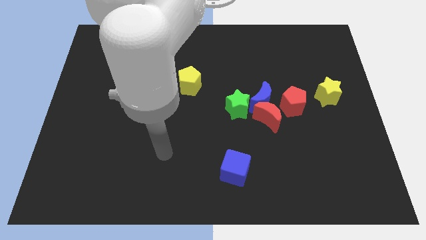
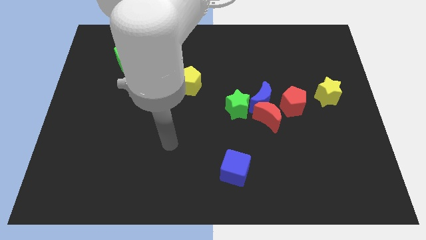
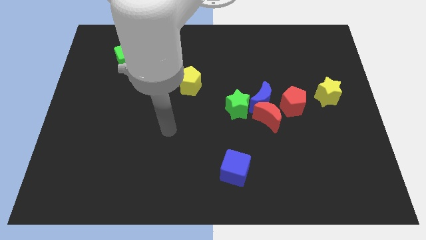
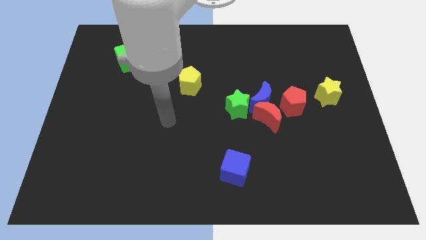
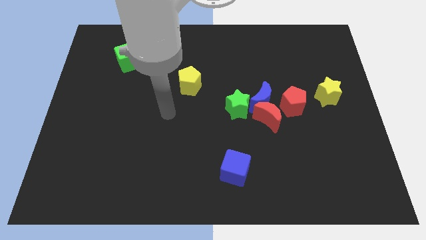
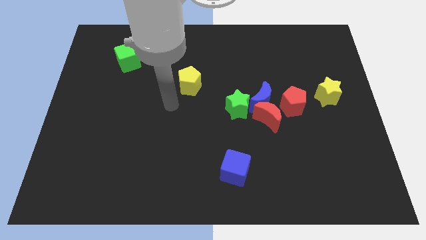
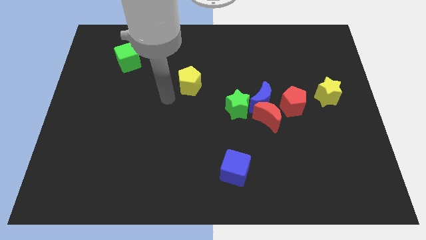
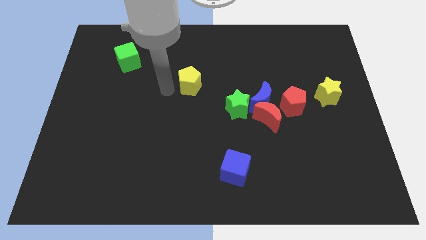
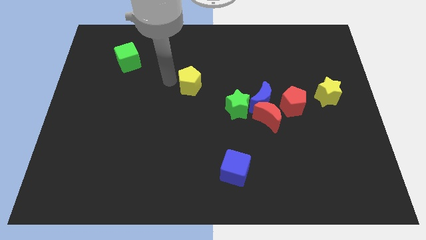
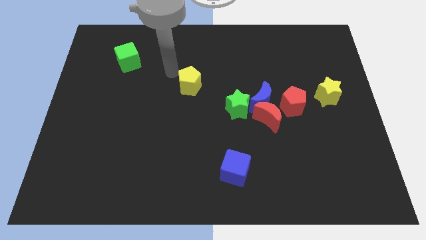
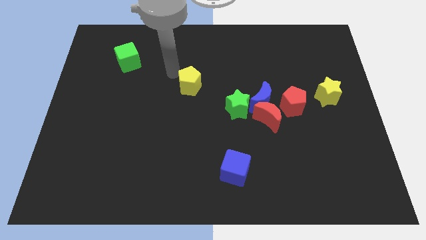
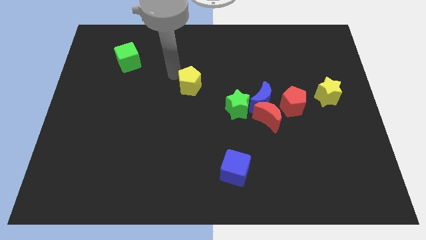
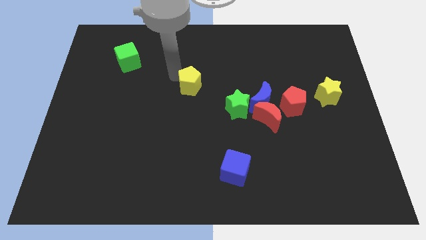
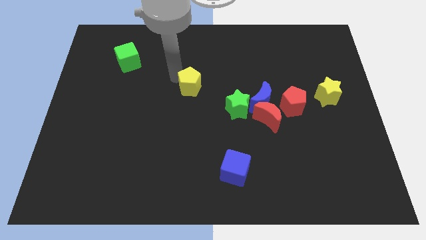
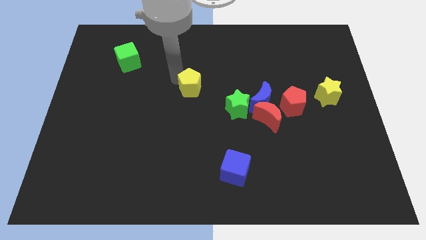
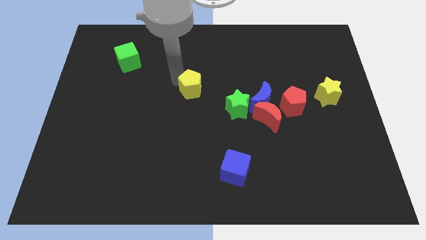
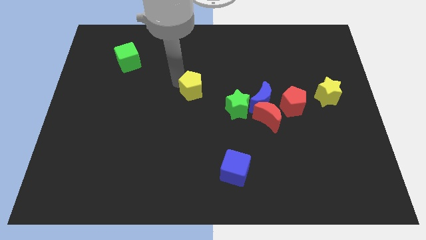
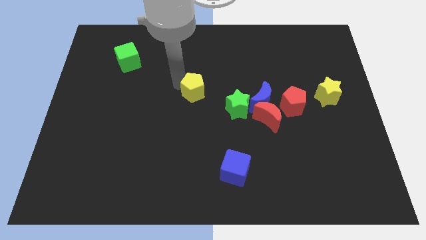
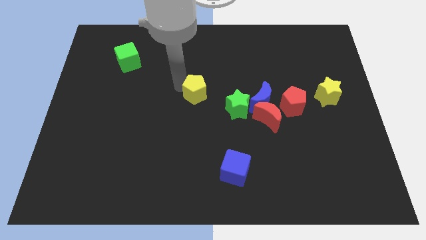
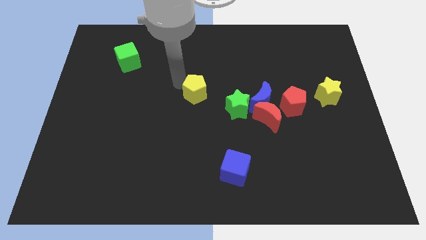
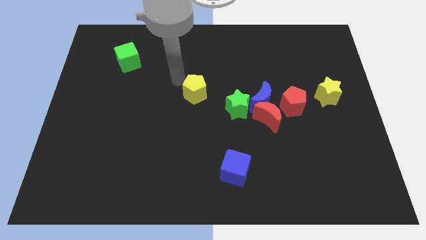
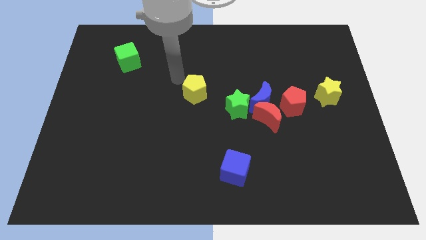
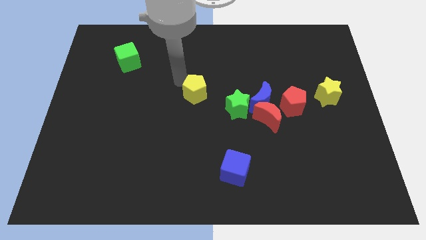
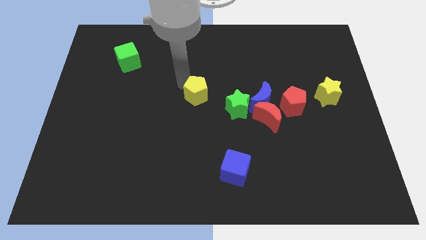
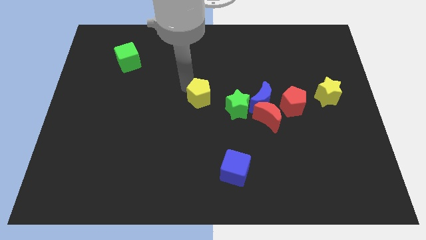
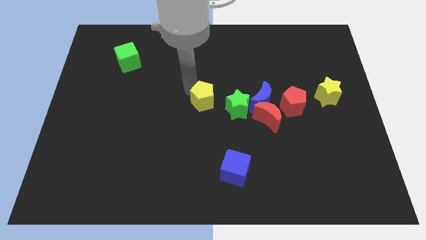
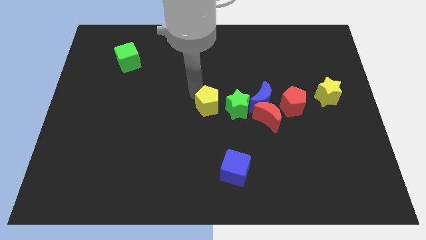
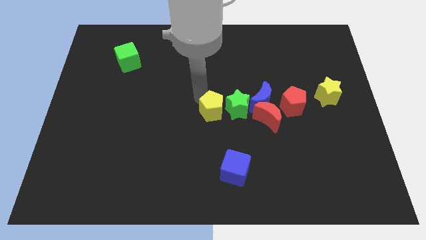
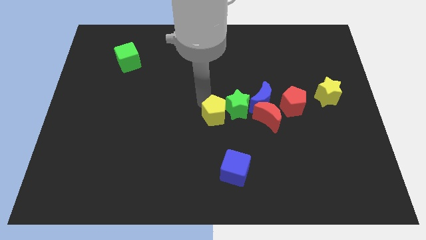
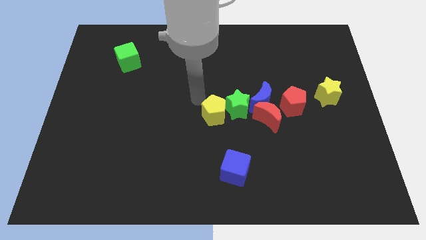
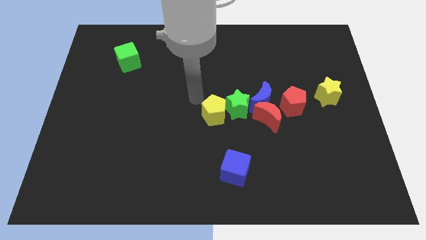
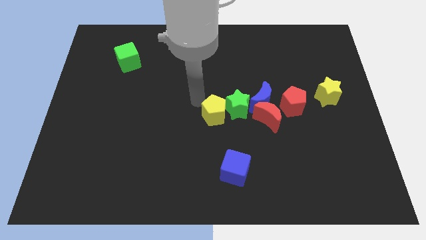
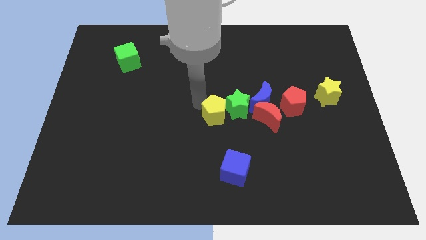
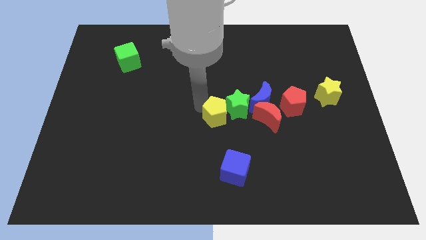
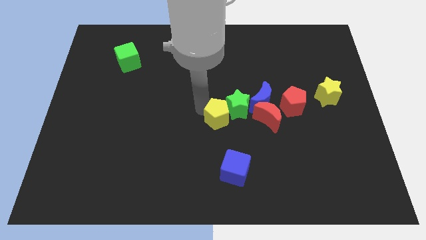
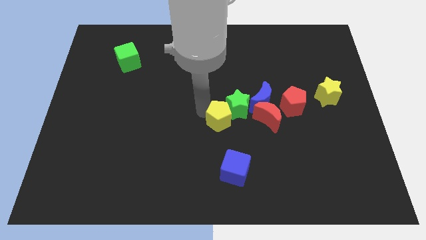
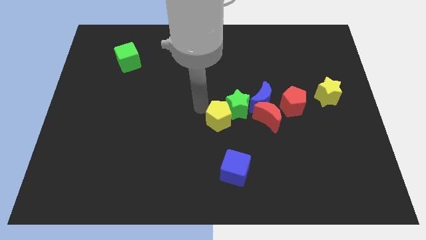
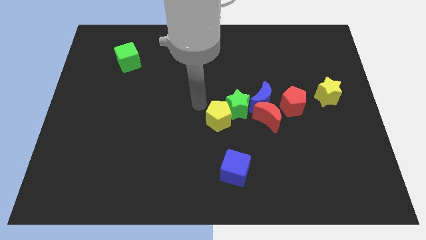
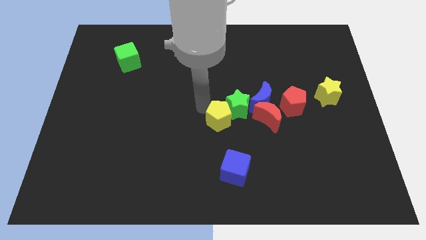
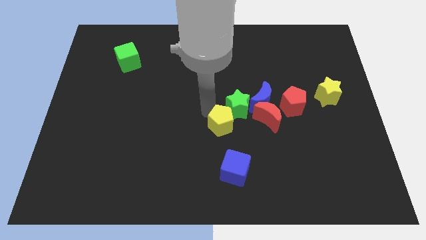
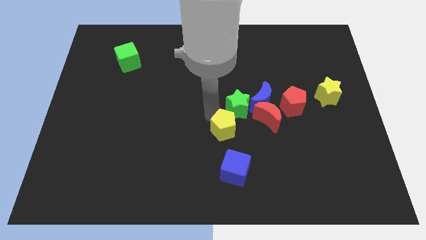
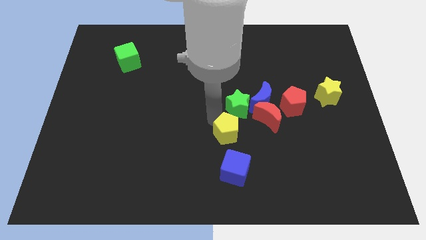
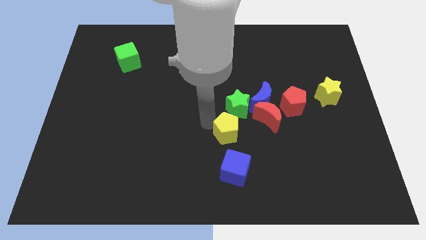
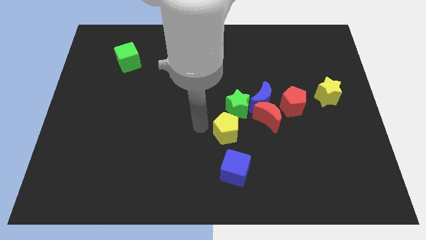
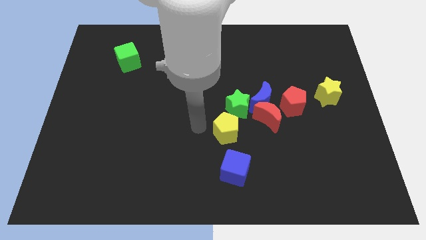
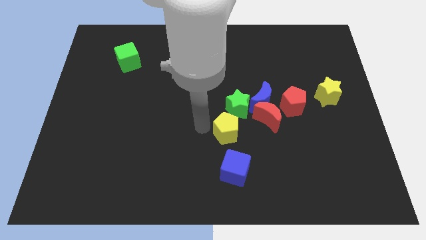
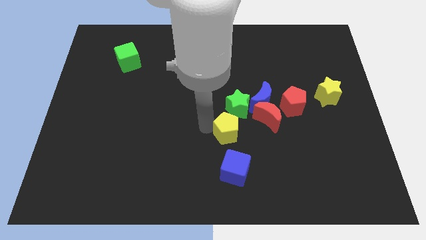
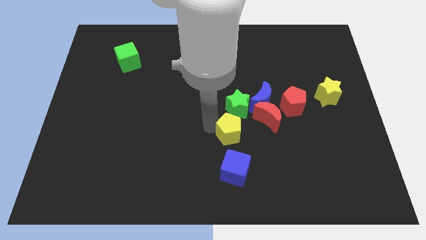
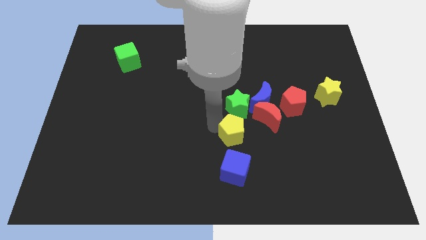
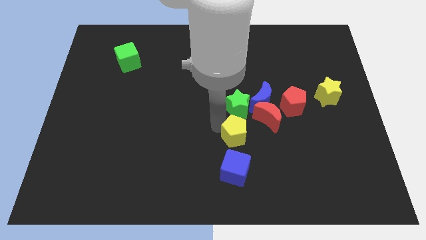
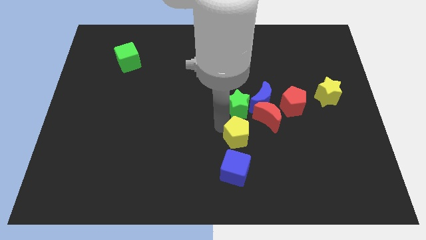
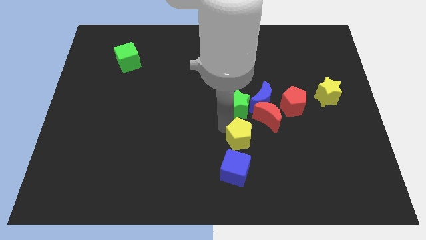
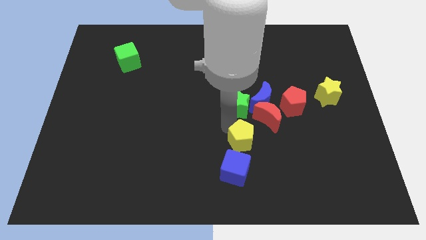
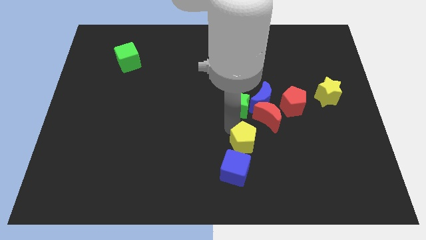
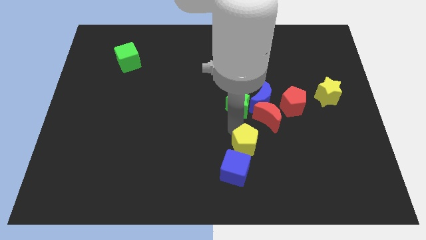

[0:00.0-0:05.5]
put the yellow pentagon to the bottom of the blue moon
